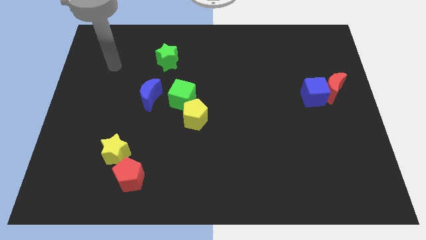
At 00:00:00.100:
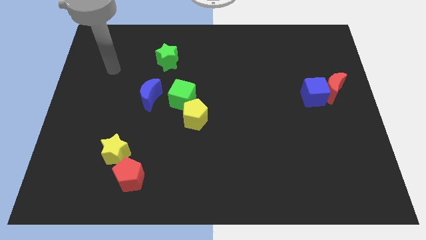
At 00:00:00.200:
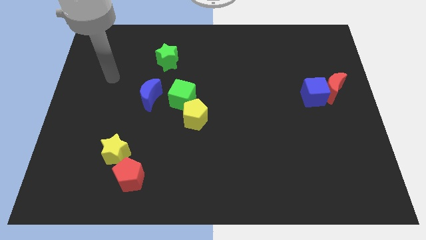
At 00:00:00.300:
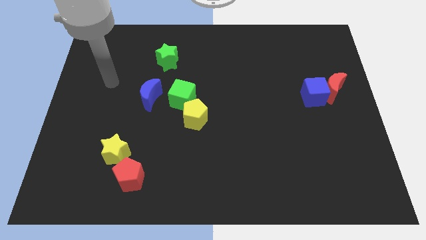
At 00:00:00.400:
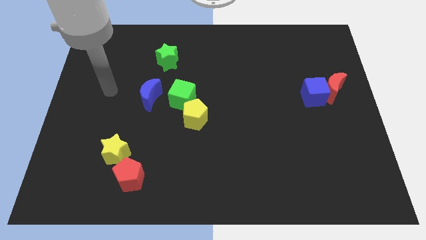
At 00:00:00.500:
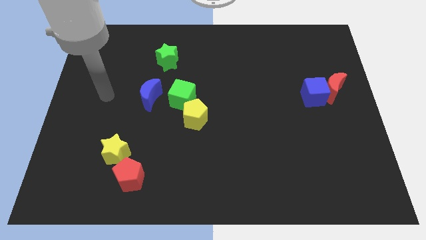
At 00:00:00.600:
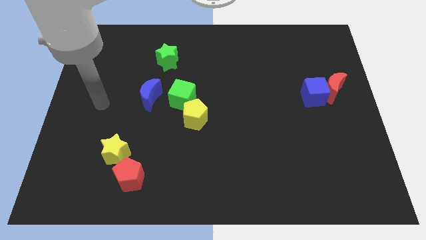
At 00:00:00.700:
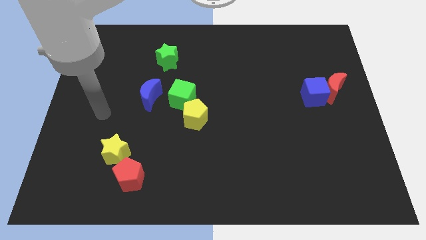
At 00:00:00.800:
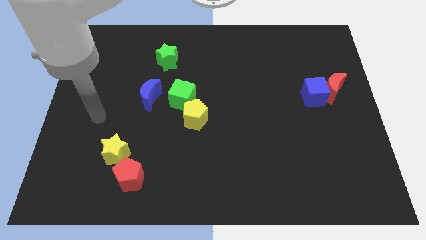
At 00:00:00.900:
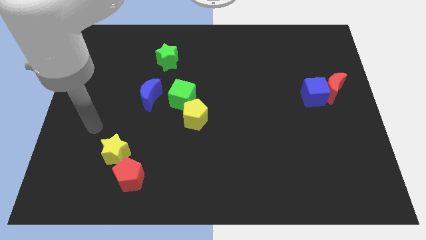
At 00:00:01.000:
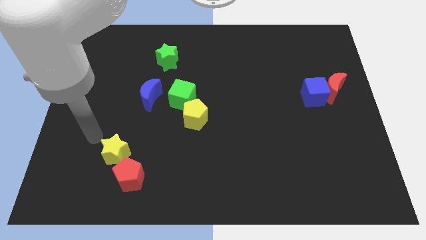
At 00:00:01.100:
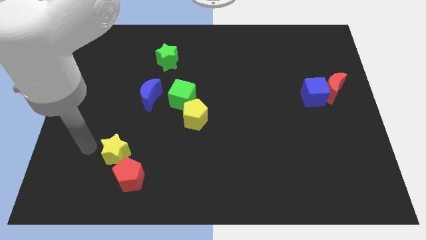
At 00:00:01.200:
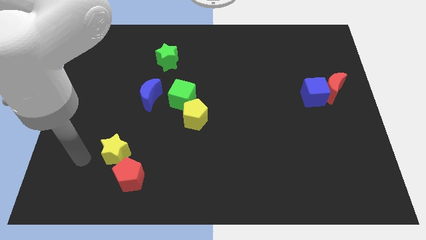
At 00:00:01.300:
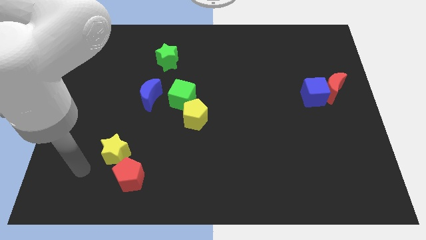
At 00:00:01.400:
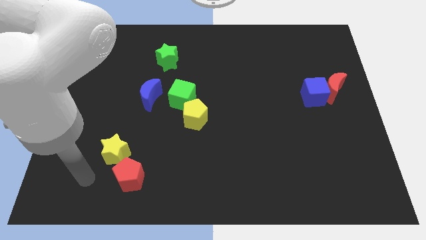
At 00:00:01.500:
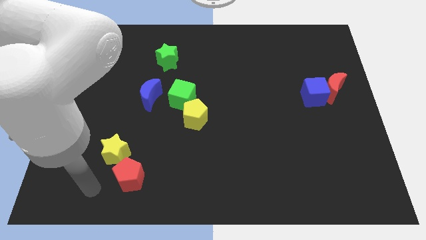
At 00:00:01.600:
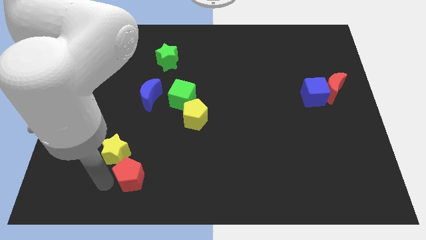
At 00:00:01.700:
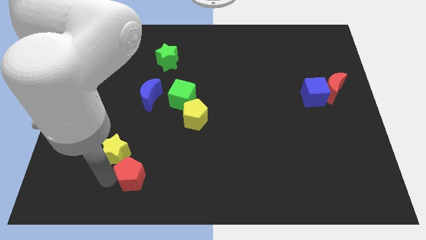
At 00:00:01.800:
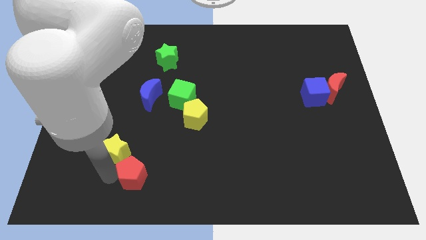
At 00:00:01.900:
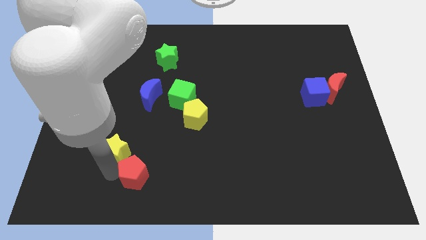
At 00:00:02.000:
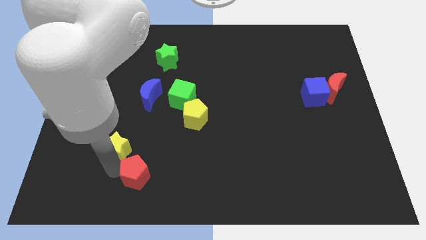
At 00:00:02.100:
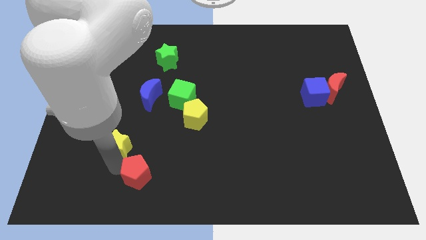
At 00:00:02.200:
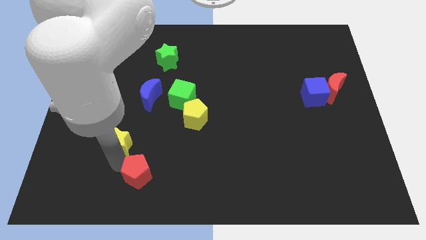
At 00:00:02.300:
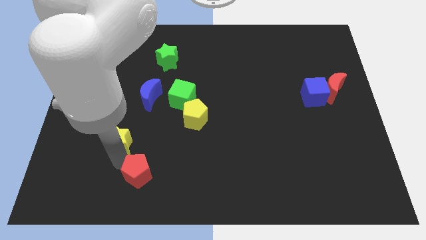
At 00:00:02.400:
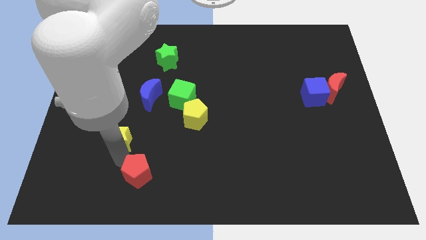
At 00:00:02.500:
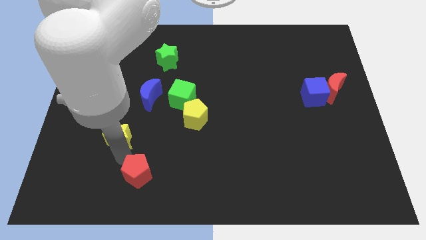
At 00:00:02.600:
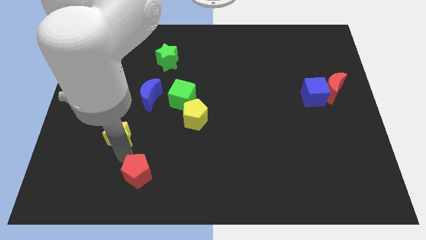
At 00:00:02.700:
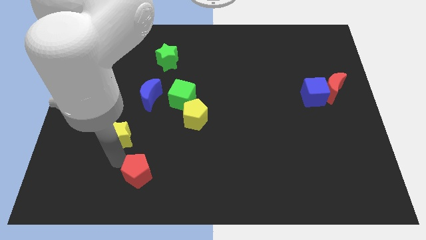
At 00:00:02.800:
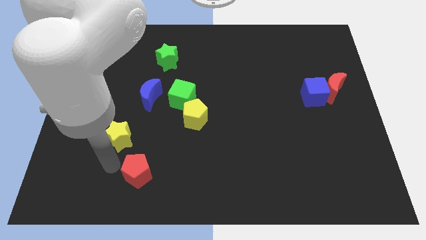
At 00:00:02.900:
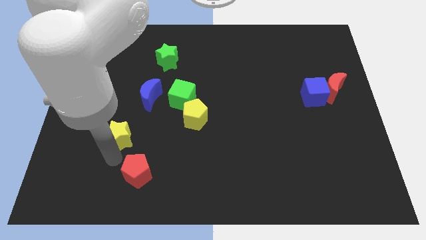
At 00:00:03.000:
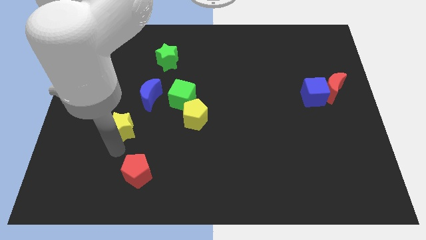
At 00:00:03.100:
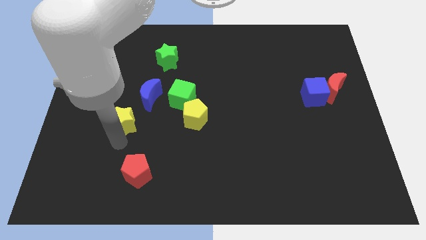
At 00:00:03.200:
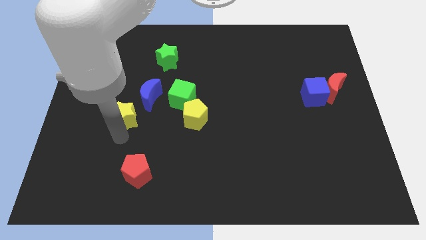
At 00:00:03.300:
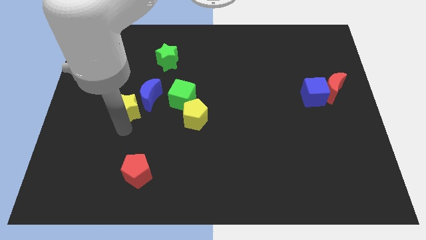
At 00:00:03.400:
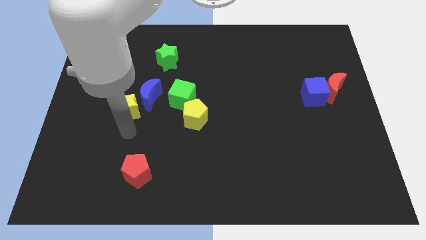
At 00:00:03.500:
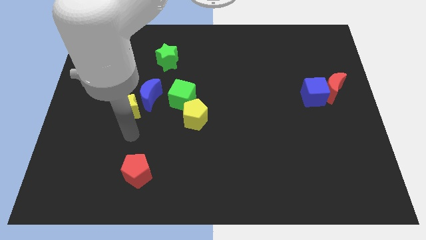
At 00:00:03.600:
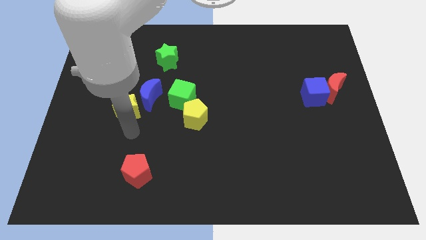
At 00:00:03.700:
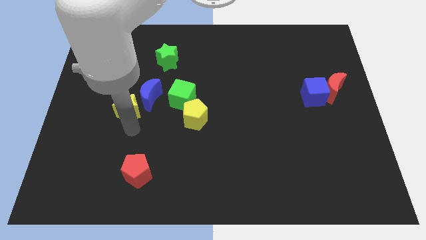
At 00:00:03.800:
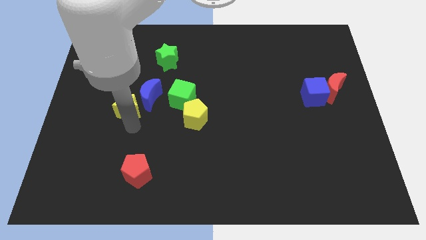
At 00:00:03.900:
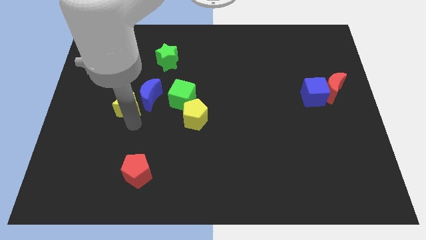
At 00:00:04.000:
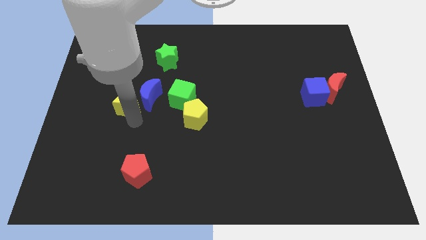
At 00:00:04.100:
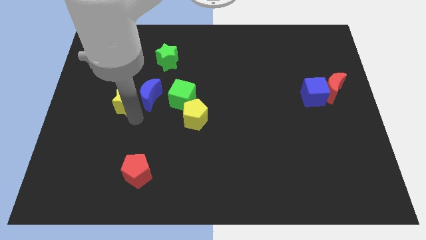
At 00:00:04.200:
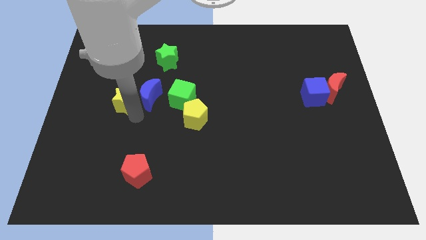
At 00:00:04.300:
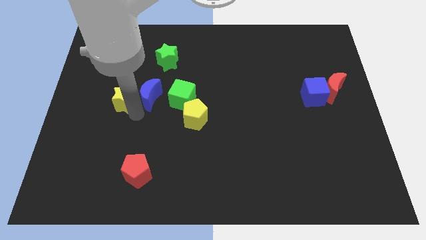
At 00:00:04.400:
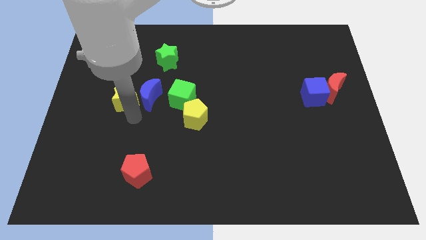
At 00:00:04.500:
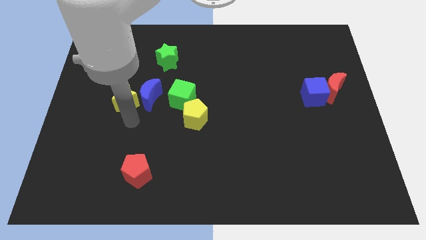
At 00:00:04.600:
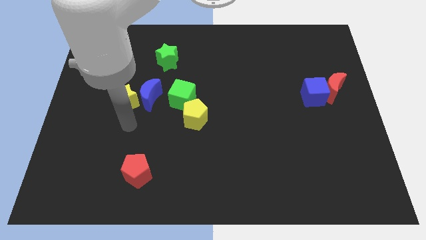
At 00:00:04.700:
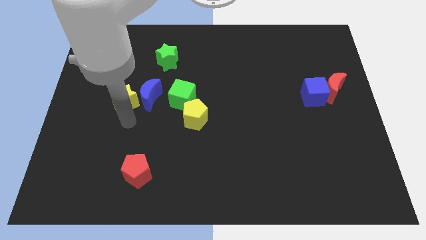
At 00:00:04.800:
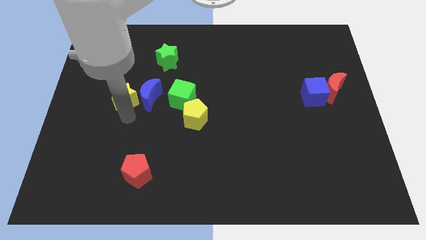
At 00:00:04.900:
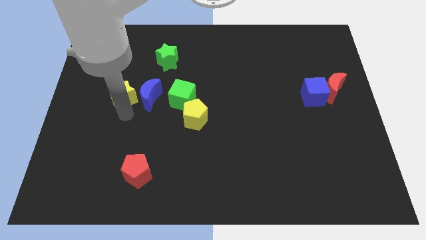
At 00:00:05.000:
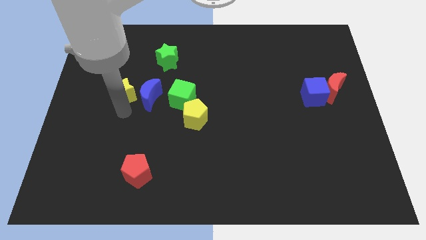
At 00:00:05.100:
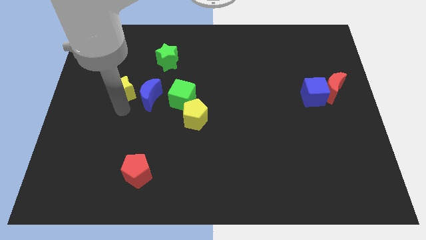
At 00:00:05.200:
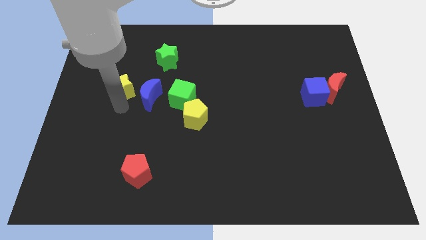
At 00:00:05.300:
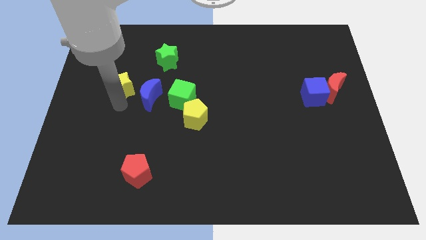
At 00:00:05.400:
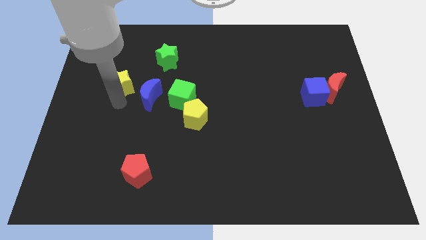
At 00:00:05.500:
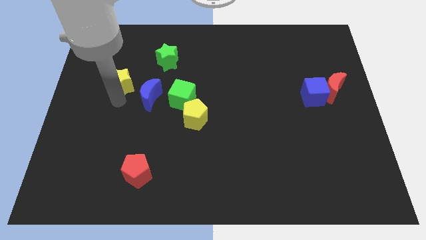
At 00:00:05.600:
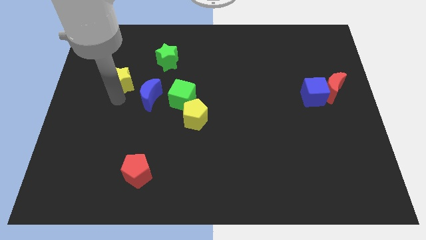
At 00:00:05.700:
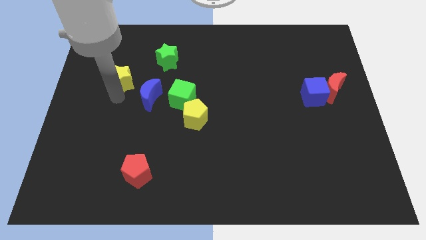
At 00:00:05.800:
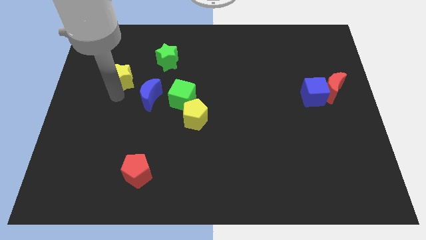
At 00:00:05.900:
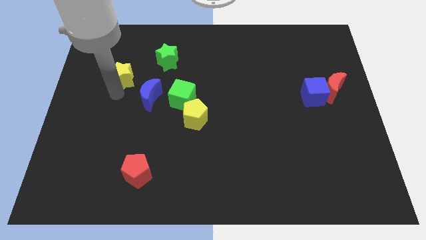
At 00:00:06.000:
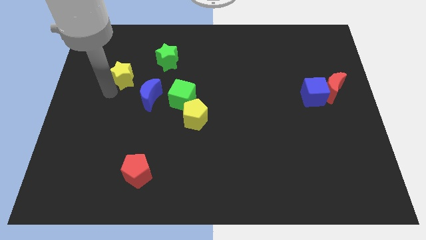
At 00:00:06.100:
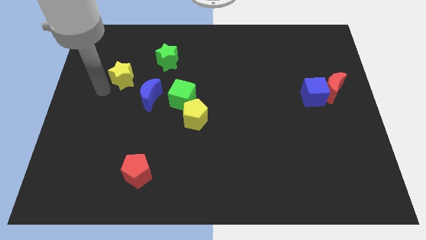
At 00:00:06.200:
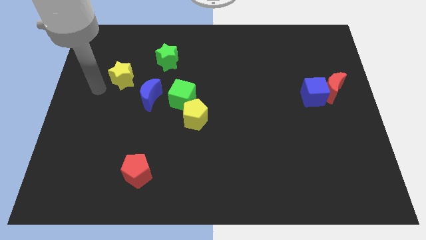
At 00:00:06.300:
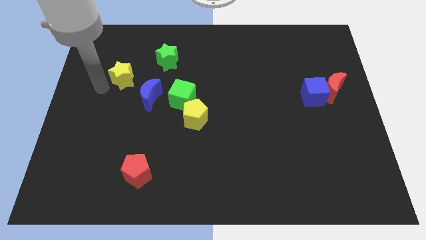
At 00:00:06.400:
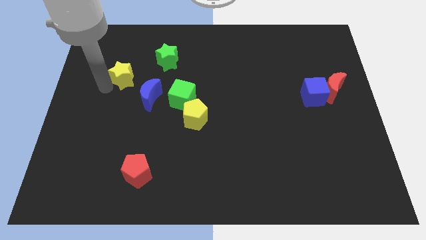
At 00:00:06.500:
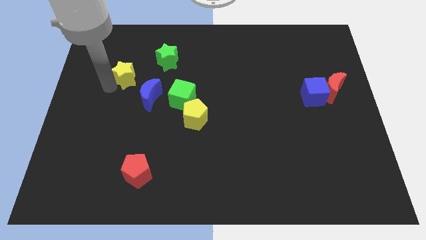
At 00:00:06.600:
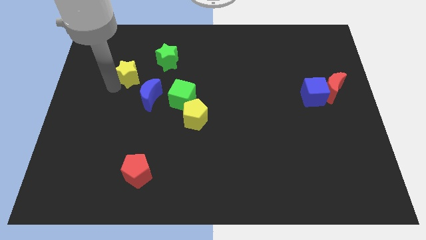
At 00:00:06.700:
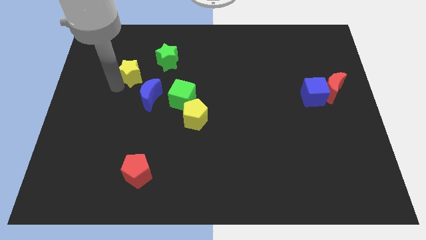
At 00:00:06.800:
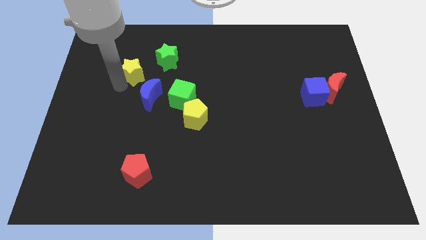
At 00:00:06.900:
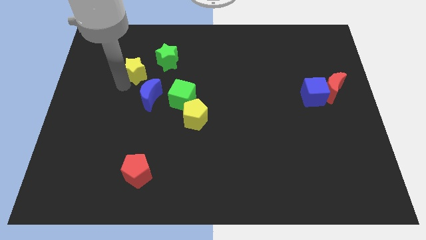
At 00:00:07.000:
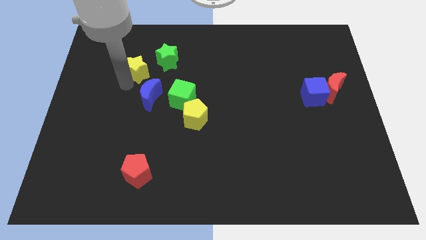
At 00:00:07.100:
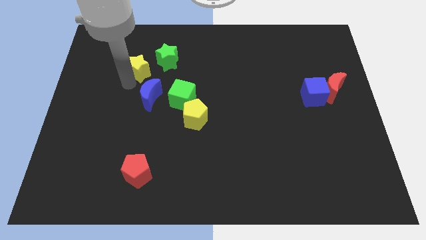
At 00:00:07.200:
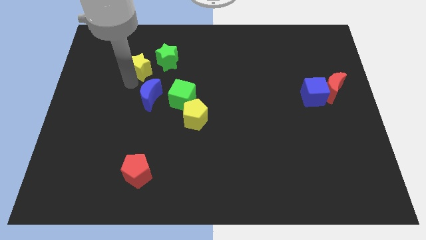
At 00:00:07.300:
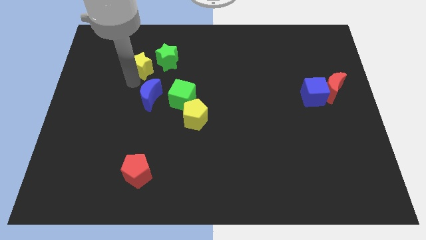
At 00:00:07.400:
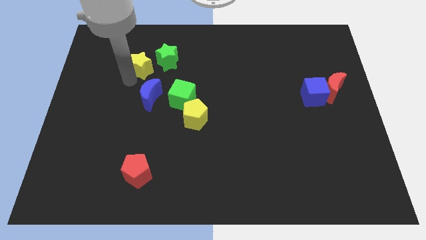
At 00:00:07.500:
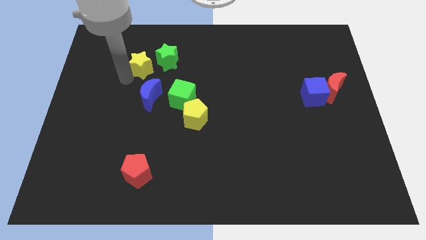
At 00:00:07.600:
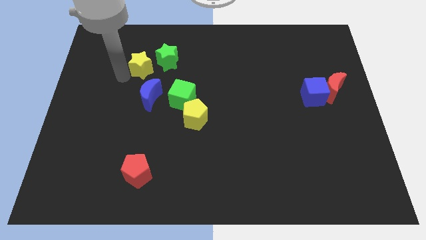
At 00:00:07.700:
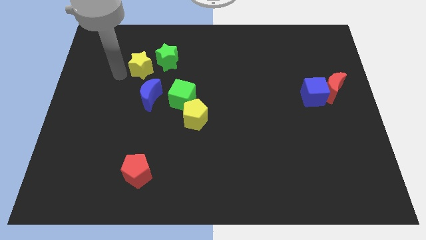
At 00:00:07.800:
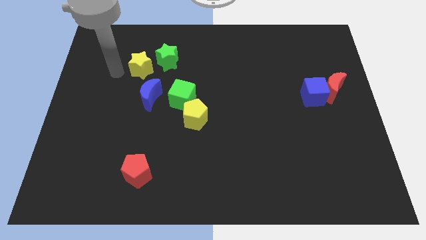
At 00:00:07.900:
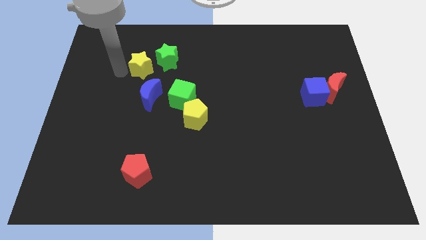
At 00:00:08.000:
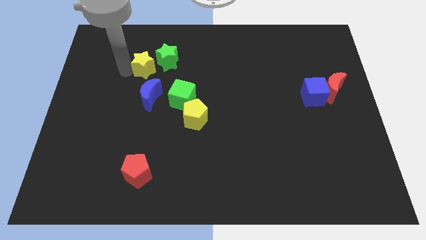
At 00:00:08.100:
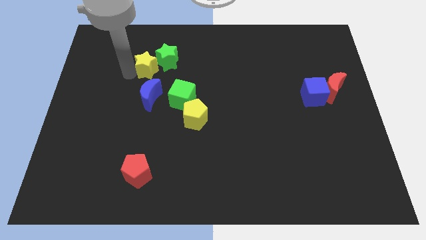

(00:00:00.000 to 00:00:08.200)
slide the yellow star towards the green star
